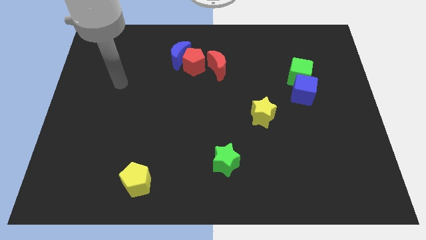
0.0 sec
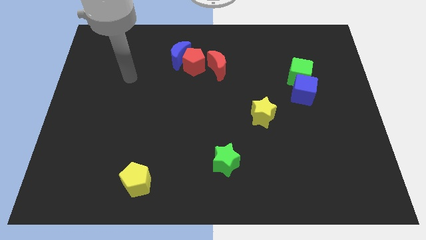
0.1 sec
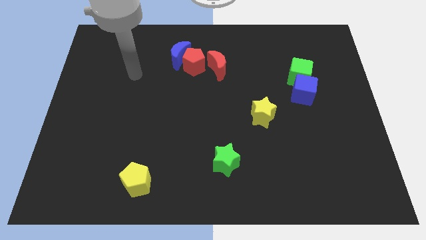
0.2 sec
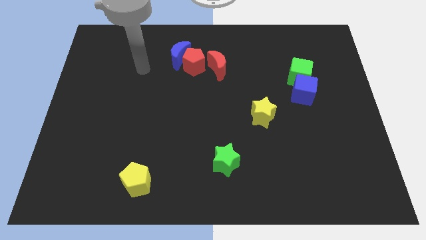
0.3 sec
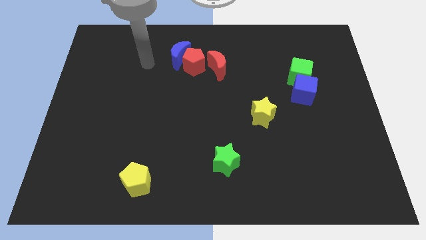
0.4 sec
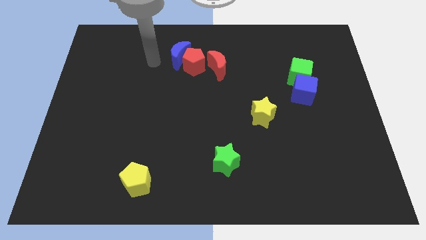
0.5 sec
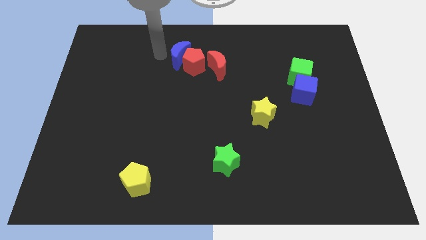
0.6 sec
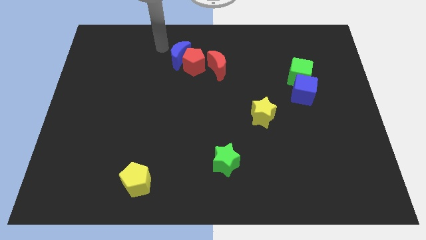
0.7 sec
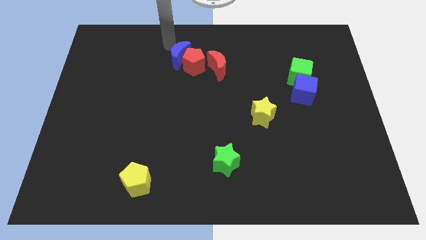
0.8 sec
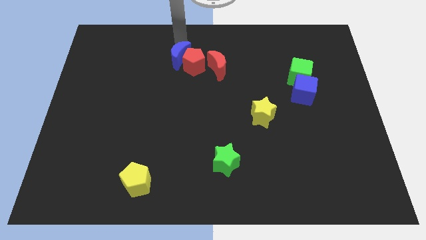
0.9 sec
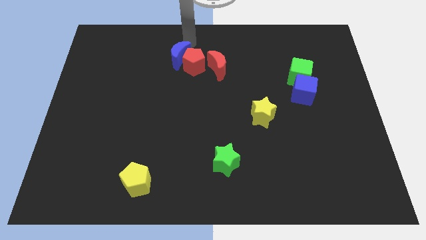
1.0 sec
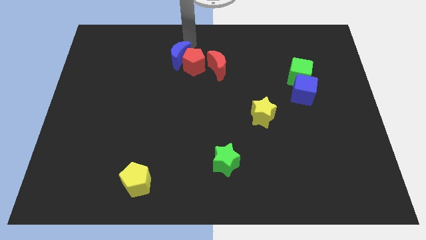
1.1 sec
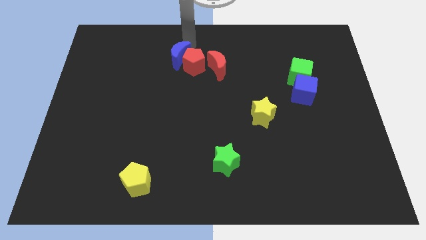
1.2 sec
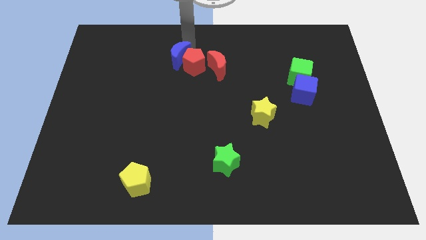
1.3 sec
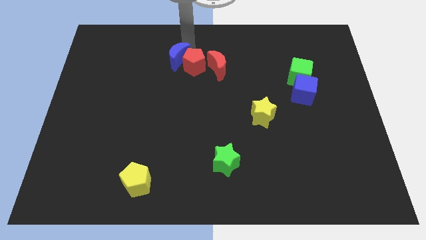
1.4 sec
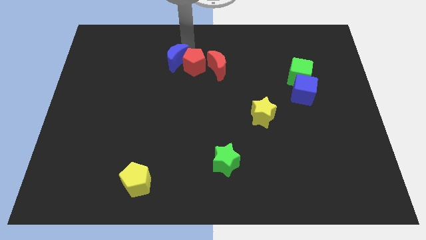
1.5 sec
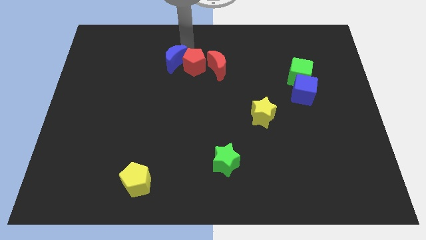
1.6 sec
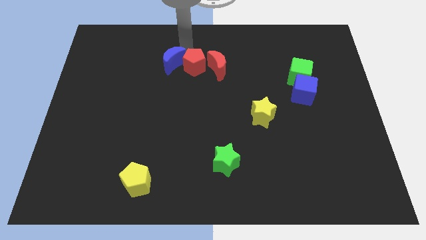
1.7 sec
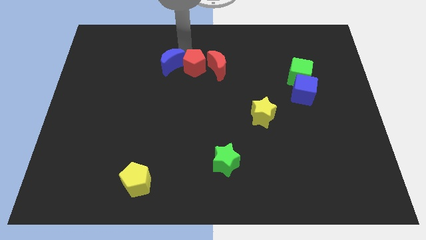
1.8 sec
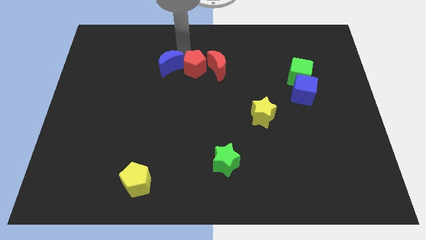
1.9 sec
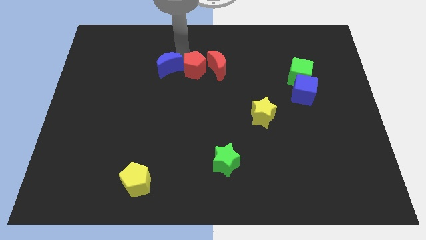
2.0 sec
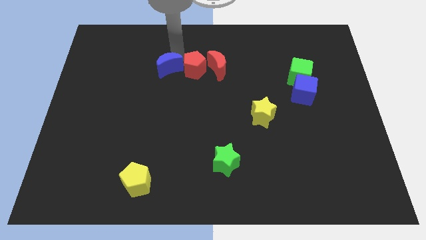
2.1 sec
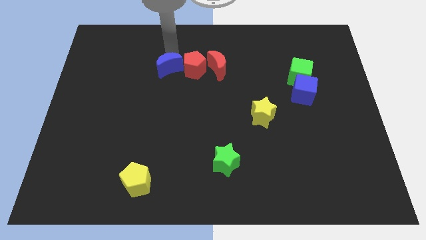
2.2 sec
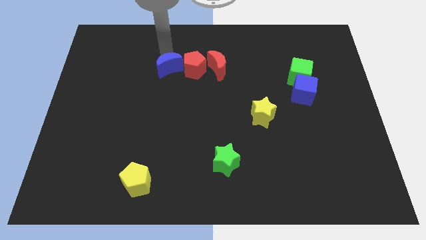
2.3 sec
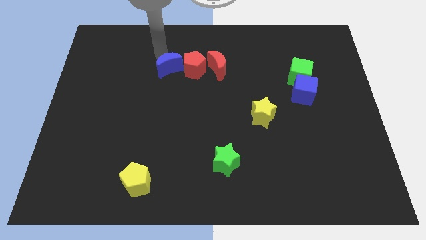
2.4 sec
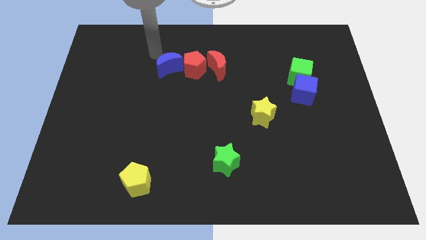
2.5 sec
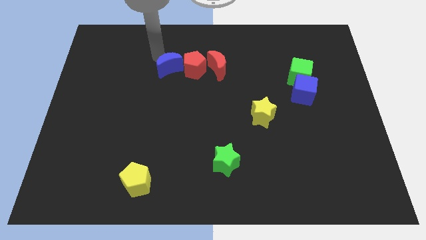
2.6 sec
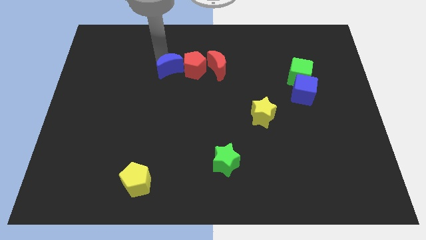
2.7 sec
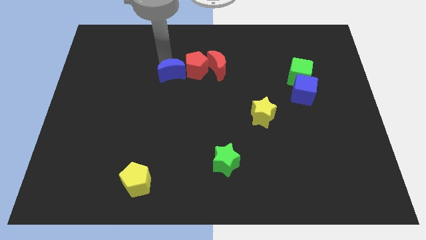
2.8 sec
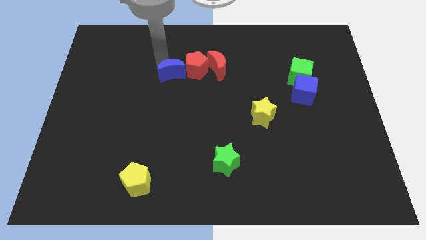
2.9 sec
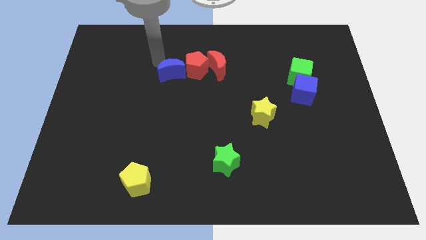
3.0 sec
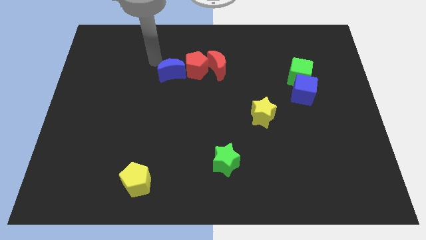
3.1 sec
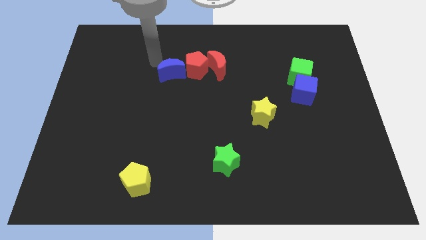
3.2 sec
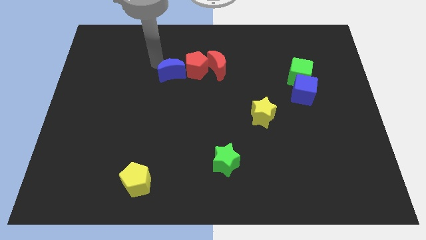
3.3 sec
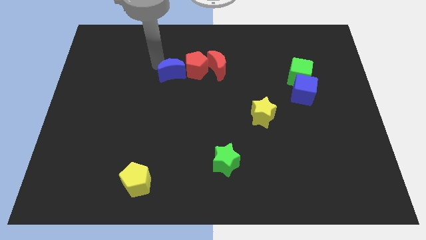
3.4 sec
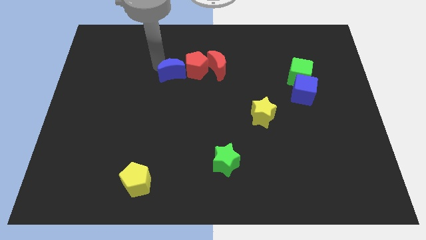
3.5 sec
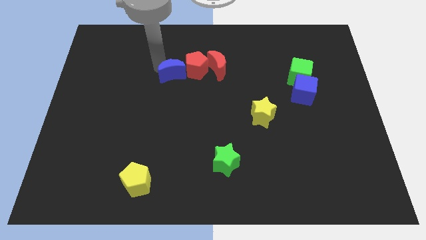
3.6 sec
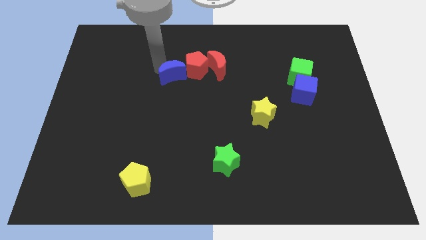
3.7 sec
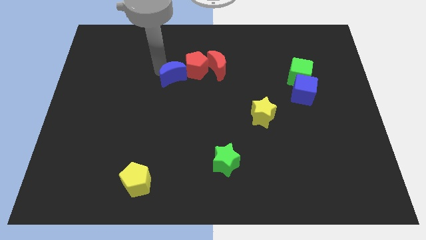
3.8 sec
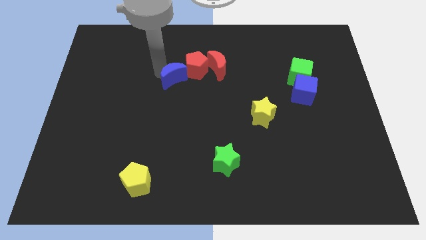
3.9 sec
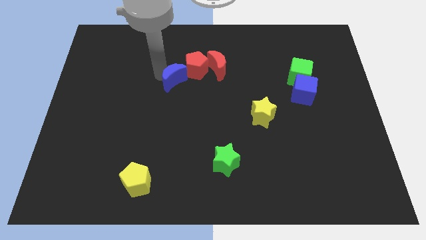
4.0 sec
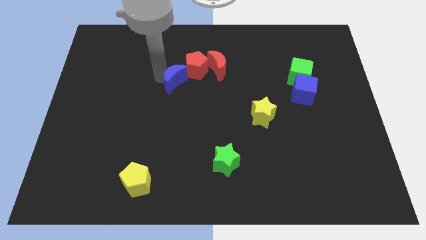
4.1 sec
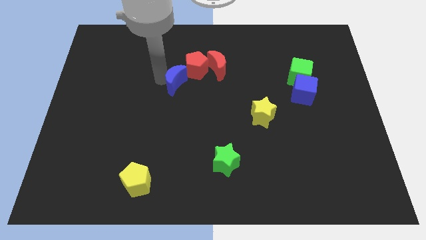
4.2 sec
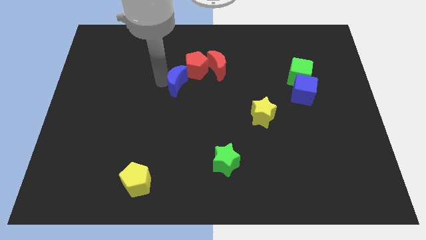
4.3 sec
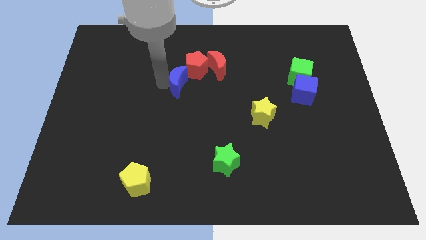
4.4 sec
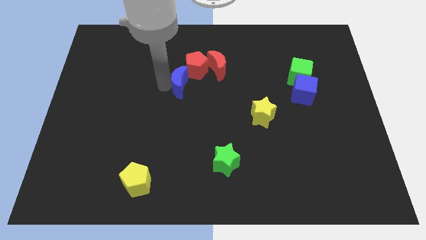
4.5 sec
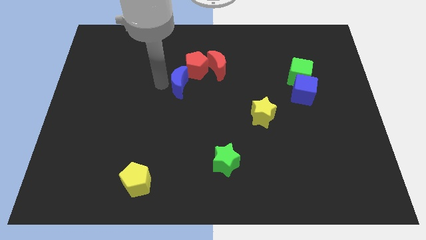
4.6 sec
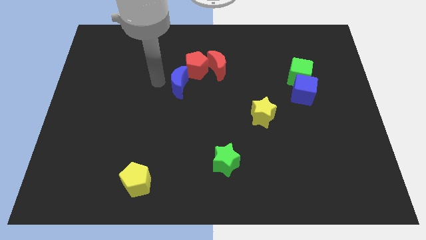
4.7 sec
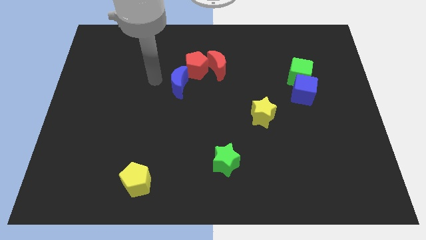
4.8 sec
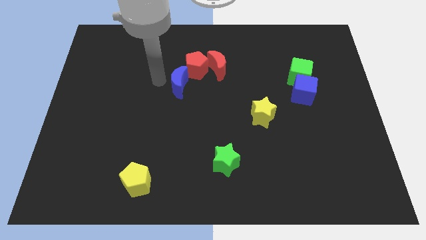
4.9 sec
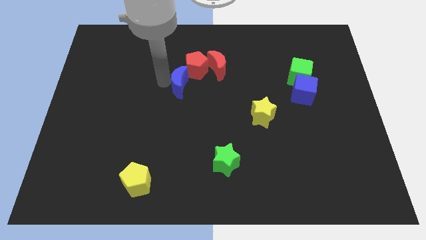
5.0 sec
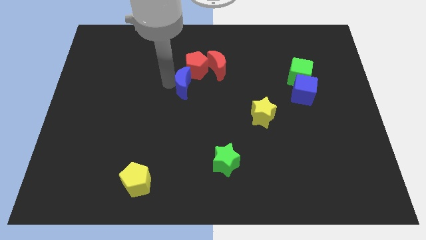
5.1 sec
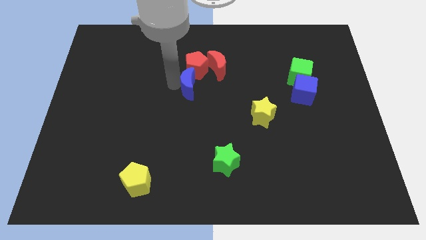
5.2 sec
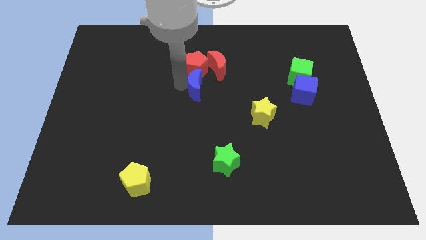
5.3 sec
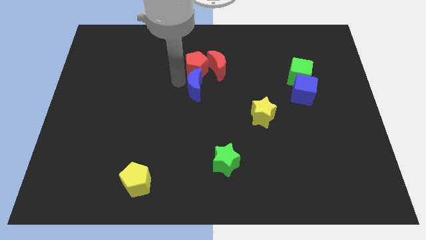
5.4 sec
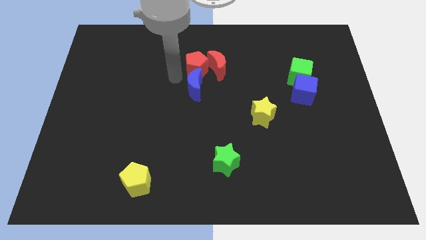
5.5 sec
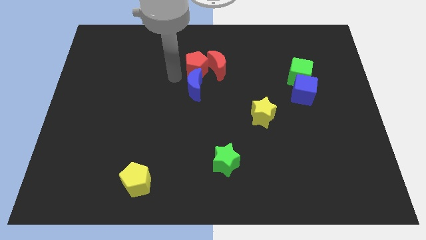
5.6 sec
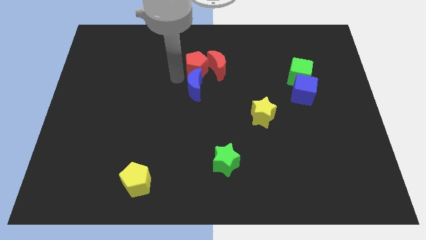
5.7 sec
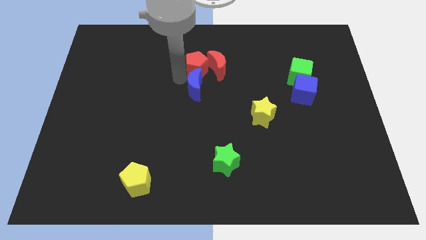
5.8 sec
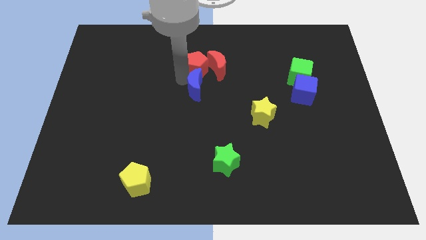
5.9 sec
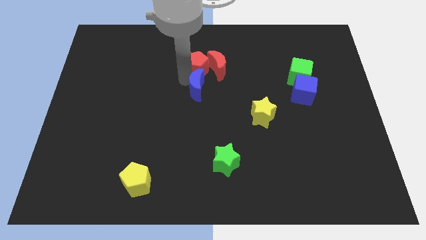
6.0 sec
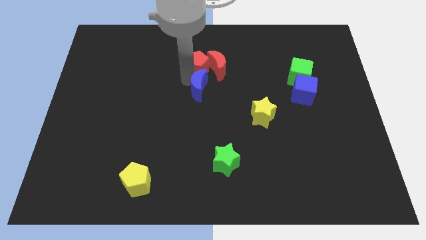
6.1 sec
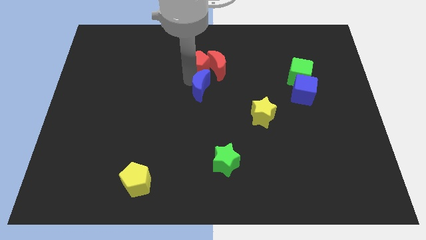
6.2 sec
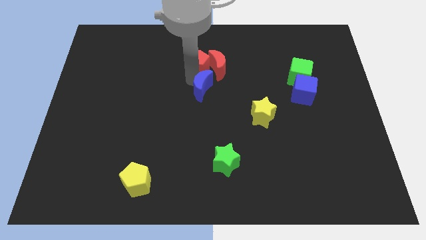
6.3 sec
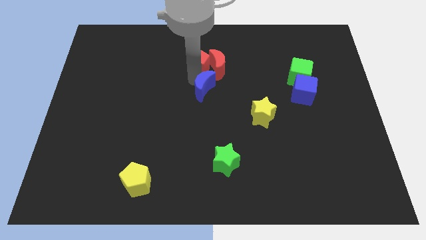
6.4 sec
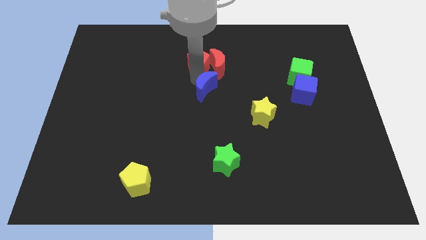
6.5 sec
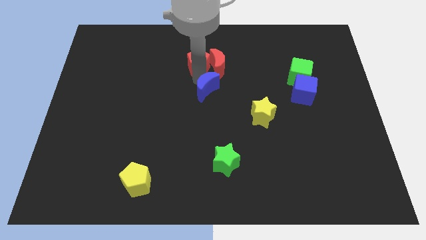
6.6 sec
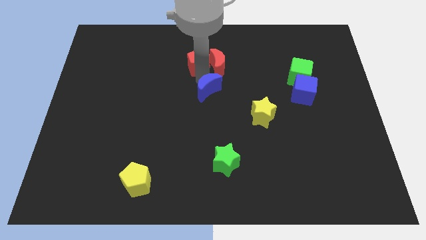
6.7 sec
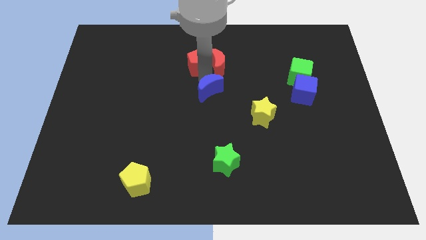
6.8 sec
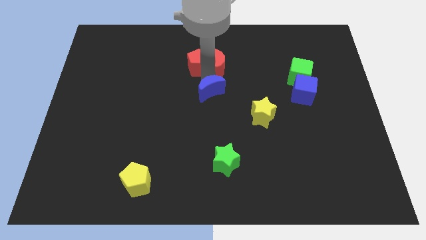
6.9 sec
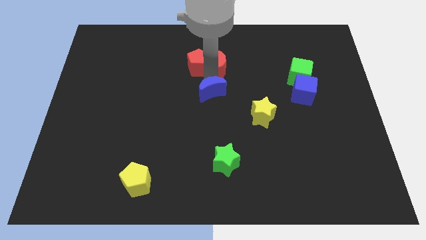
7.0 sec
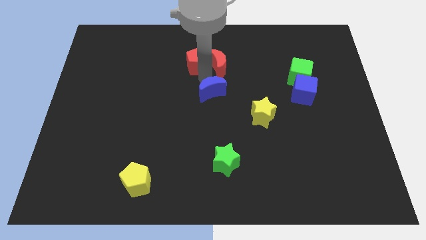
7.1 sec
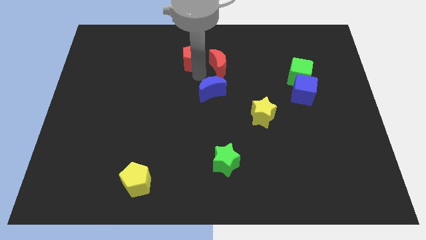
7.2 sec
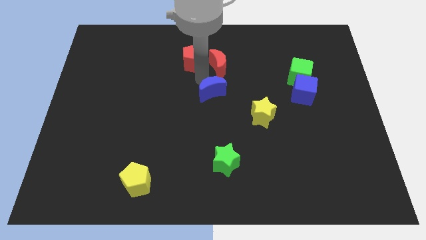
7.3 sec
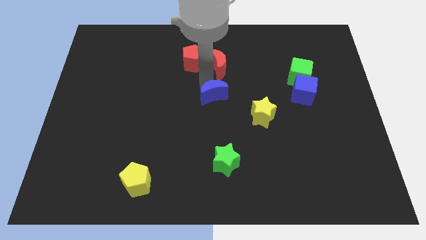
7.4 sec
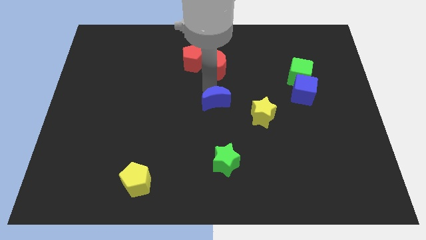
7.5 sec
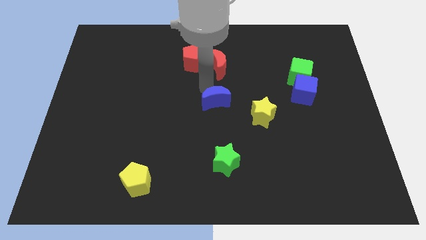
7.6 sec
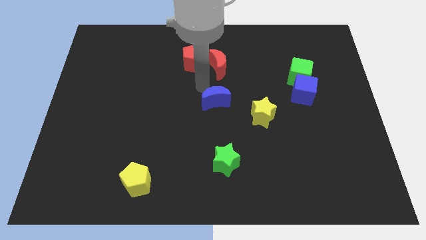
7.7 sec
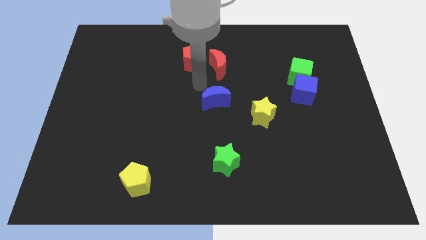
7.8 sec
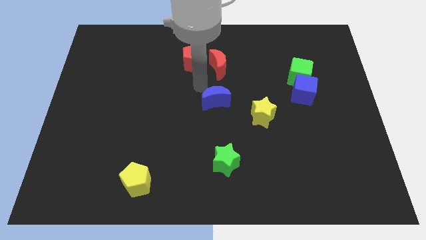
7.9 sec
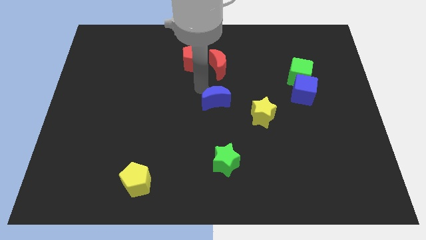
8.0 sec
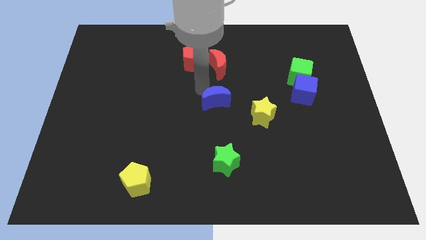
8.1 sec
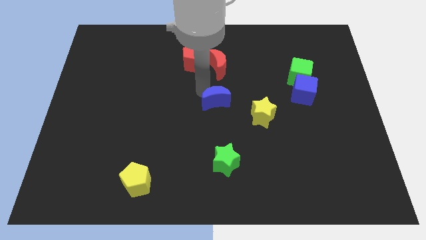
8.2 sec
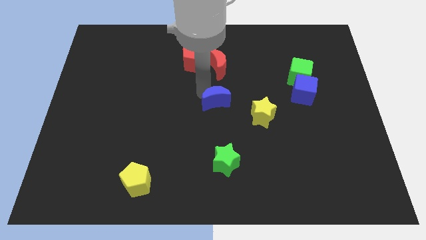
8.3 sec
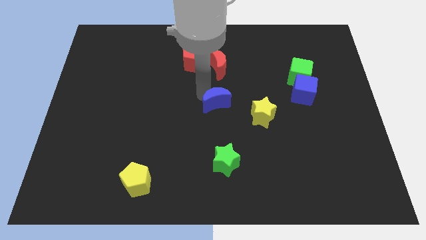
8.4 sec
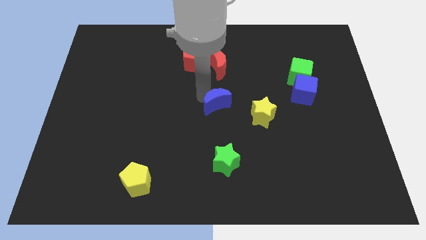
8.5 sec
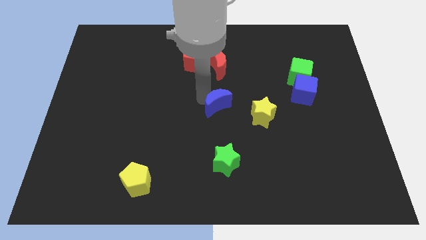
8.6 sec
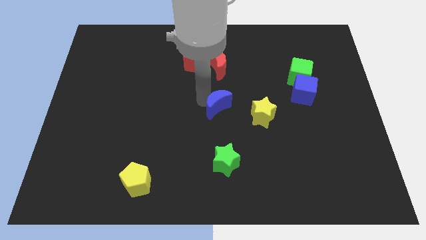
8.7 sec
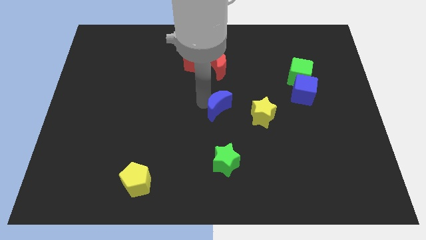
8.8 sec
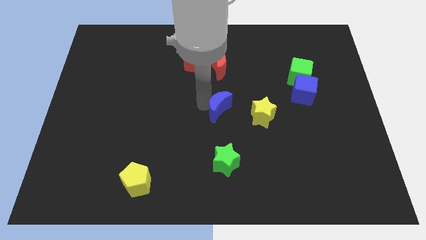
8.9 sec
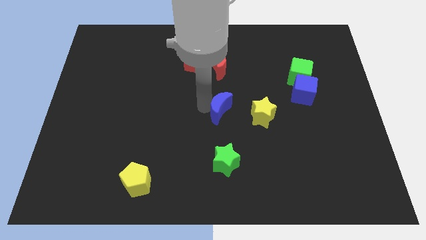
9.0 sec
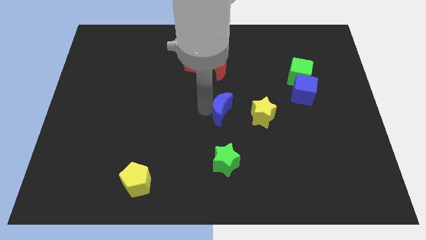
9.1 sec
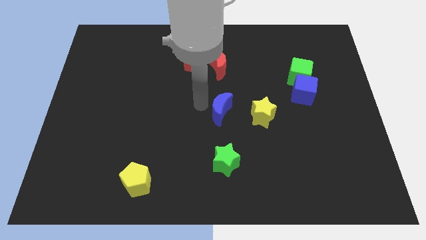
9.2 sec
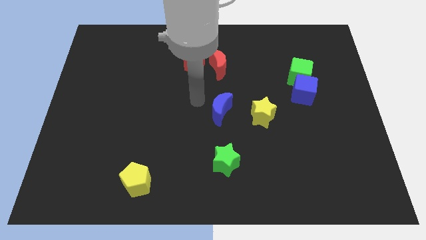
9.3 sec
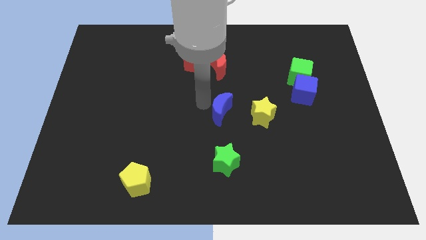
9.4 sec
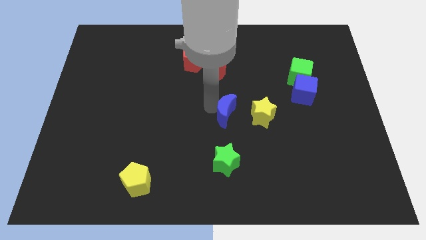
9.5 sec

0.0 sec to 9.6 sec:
move the blue moon down and then right
